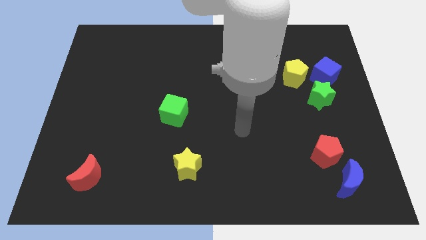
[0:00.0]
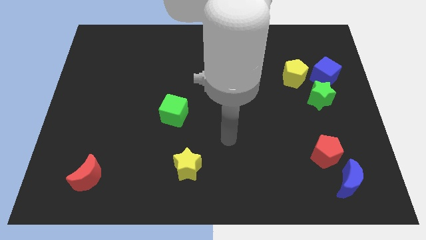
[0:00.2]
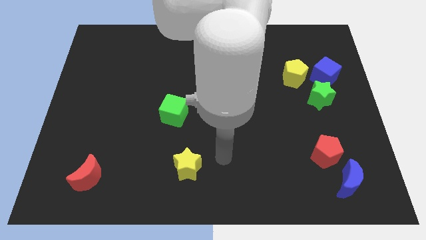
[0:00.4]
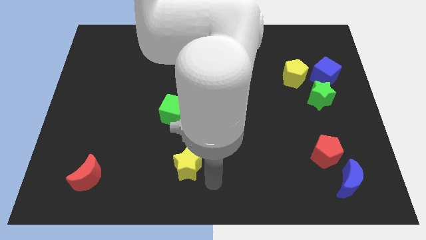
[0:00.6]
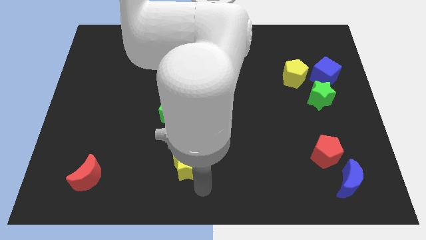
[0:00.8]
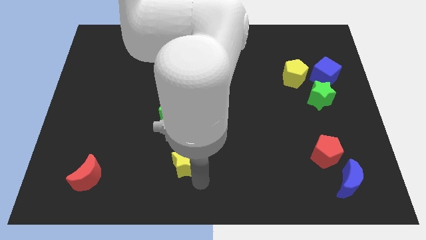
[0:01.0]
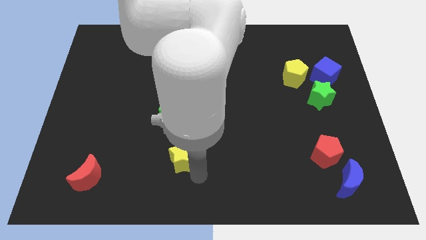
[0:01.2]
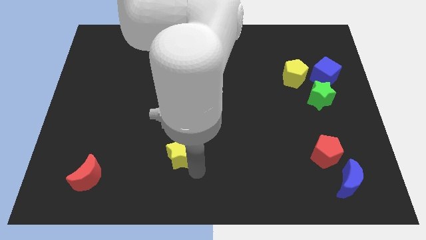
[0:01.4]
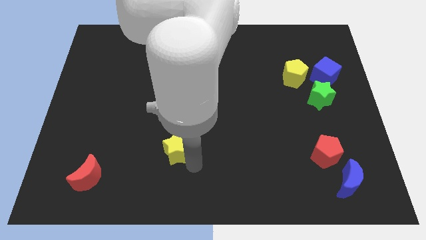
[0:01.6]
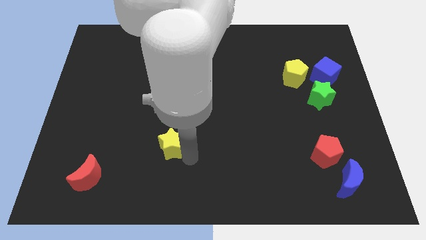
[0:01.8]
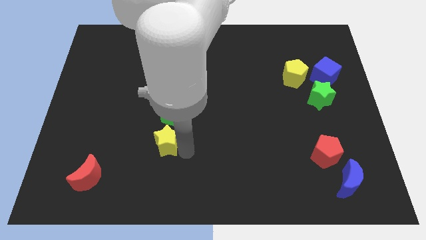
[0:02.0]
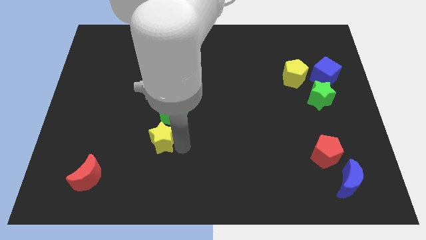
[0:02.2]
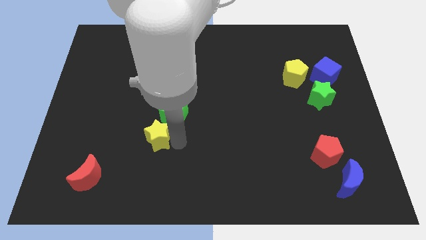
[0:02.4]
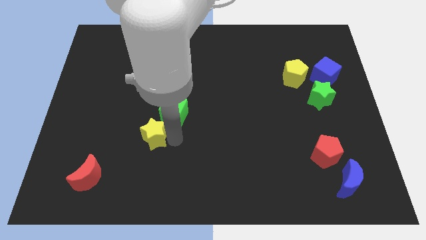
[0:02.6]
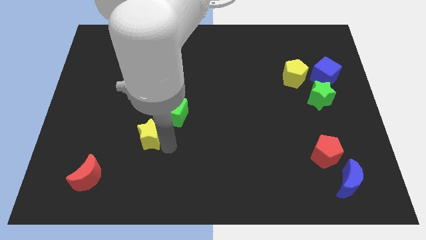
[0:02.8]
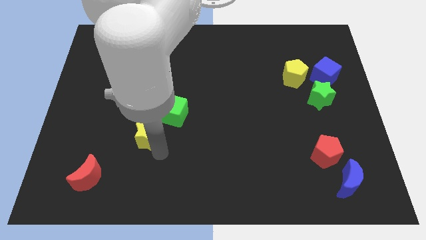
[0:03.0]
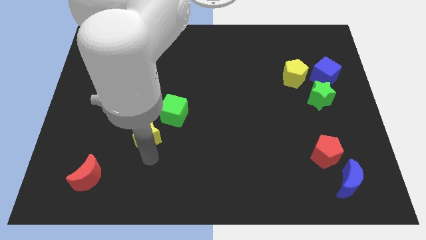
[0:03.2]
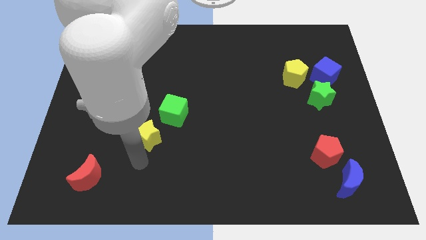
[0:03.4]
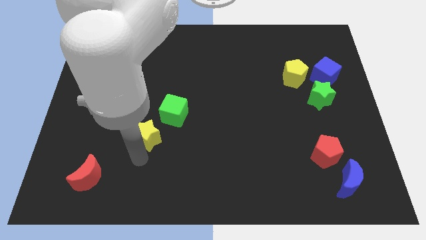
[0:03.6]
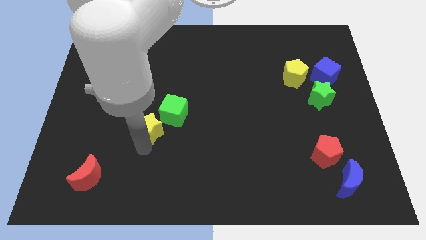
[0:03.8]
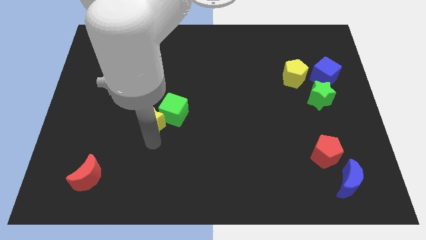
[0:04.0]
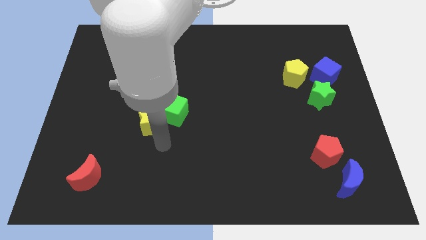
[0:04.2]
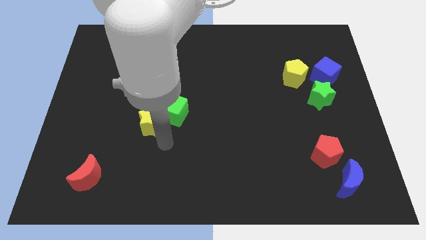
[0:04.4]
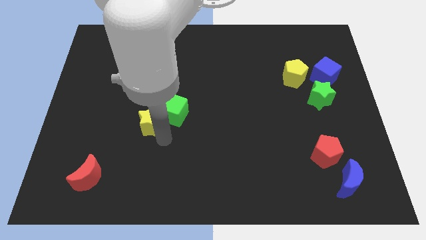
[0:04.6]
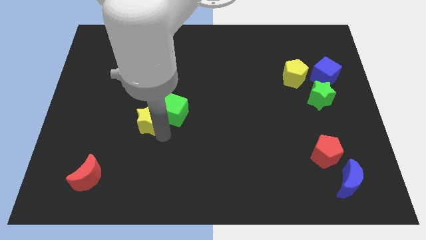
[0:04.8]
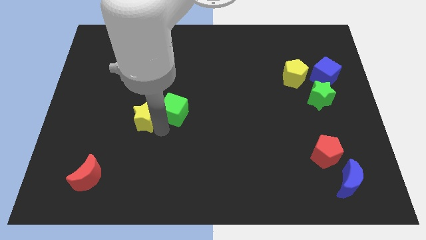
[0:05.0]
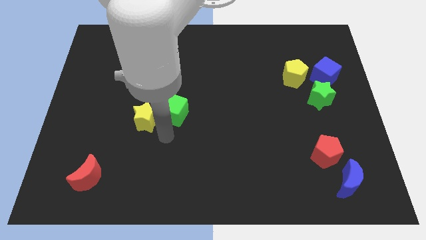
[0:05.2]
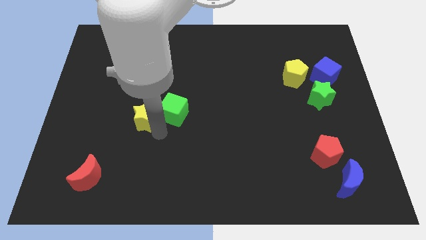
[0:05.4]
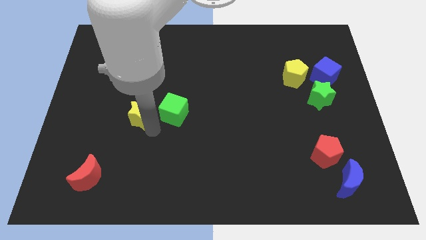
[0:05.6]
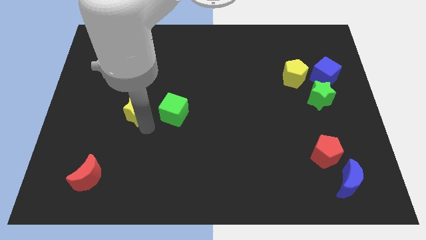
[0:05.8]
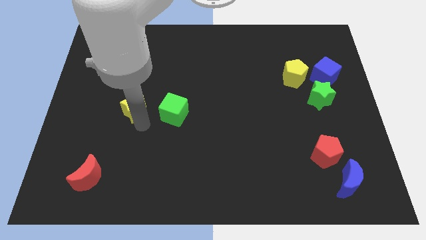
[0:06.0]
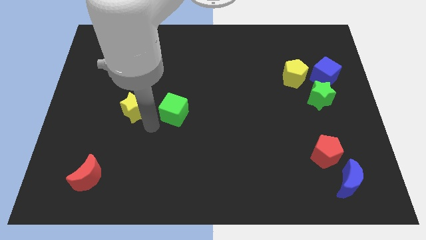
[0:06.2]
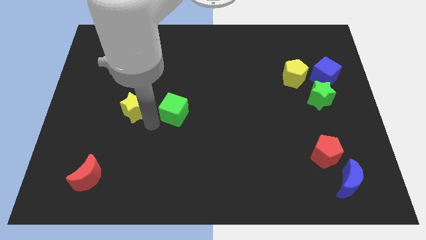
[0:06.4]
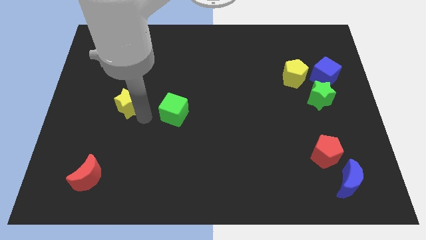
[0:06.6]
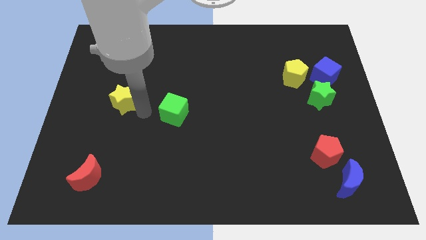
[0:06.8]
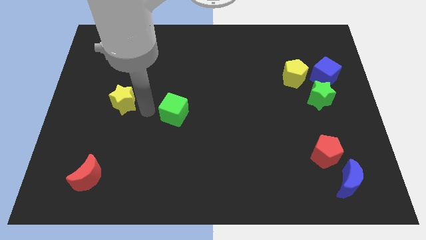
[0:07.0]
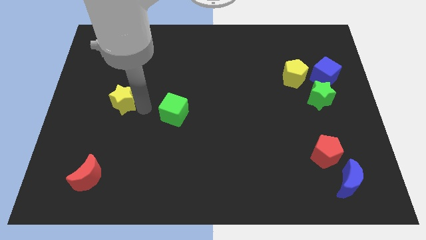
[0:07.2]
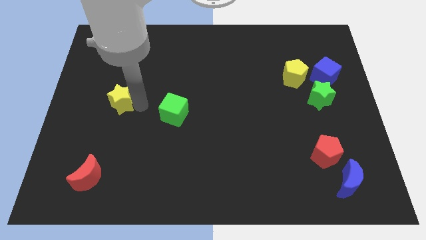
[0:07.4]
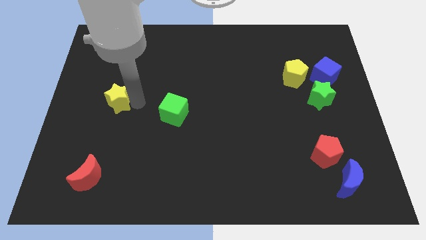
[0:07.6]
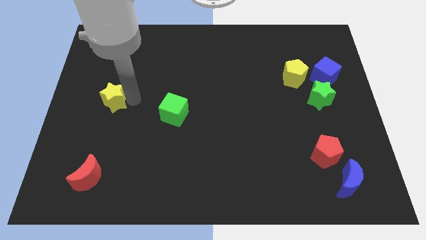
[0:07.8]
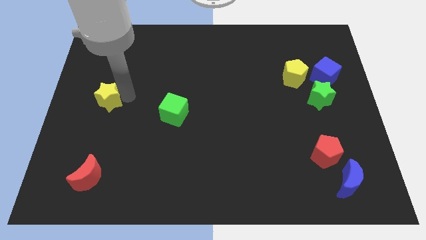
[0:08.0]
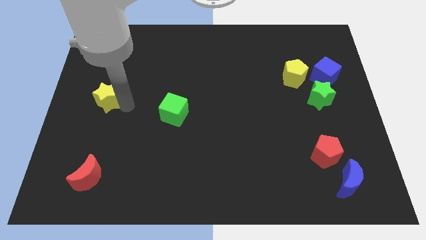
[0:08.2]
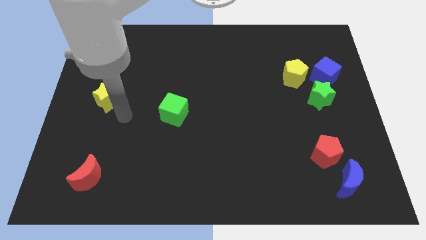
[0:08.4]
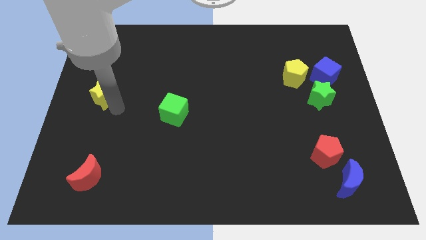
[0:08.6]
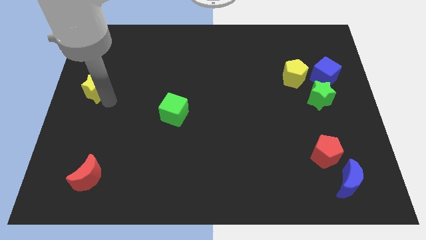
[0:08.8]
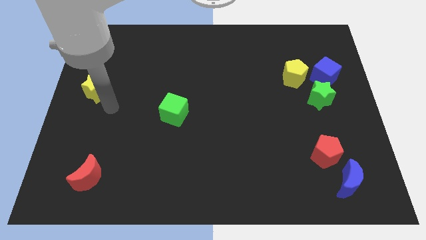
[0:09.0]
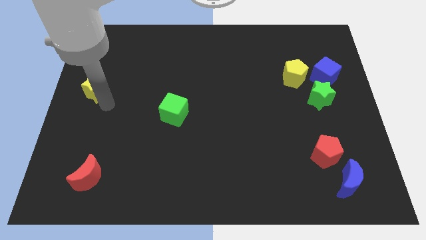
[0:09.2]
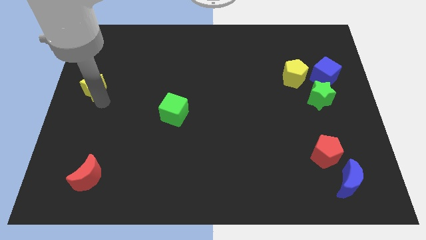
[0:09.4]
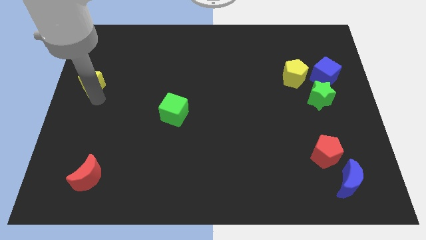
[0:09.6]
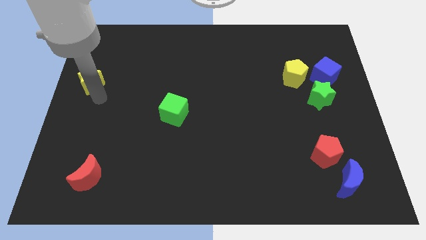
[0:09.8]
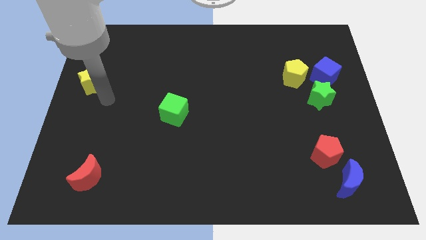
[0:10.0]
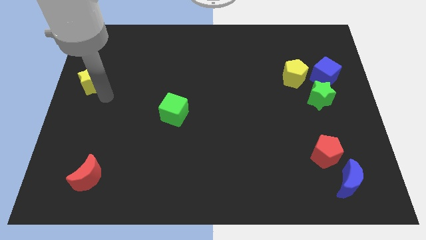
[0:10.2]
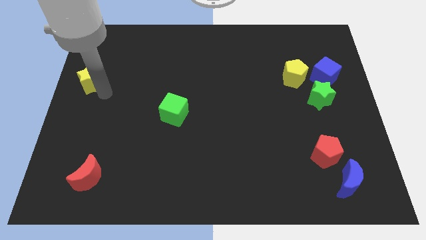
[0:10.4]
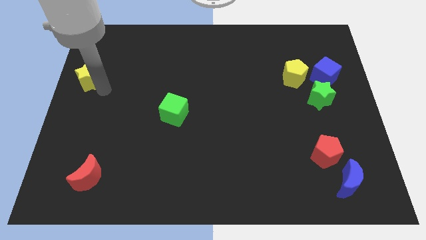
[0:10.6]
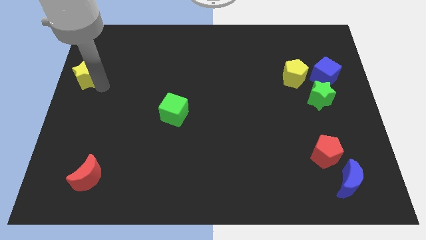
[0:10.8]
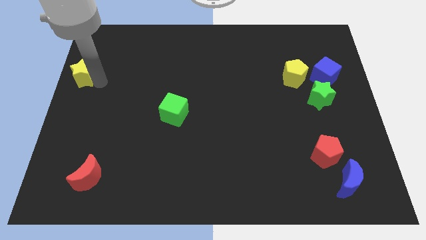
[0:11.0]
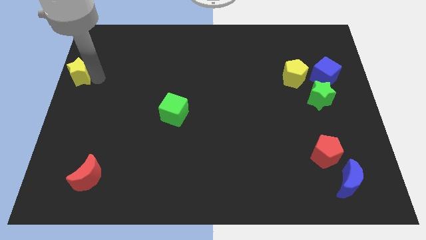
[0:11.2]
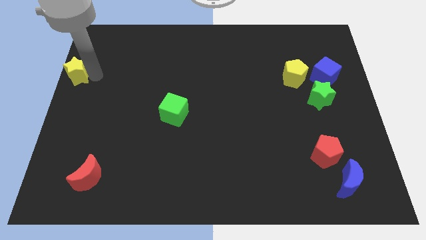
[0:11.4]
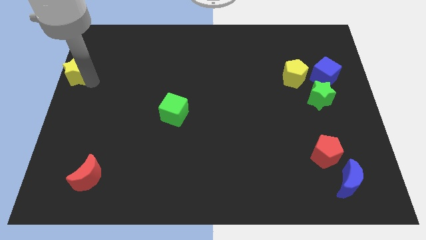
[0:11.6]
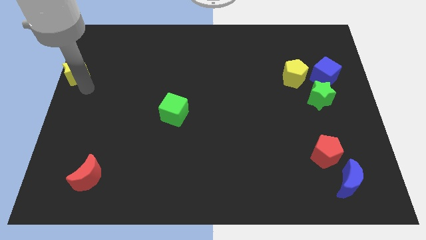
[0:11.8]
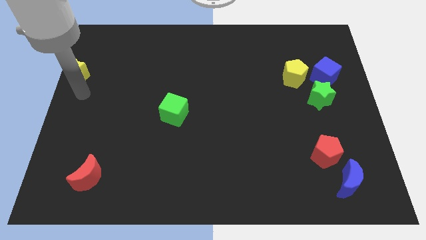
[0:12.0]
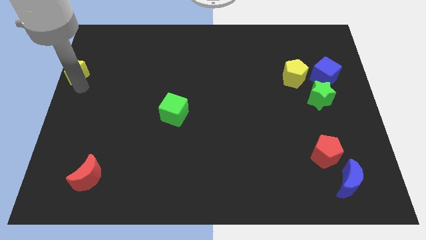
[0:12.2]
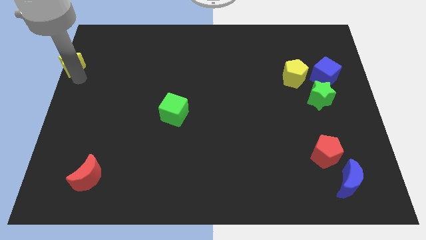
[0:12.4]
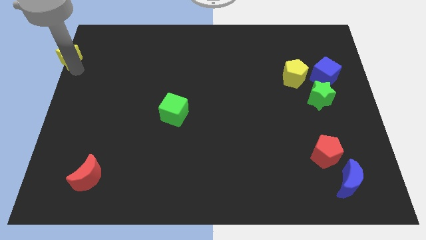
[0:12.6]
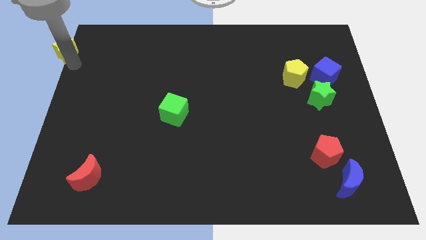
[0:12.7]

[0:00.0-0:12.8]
push the yellow star to the top left corner
